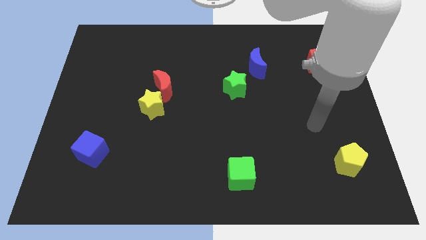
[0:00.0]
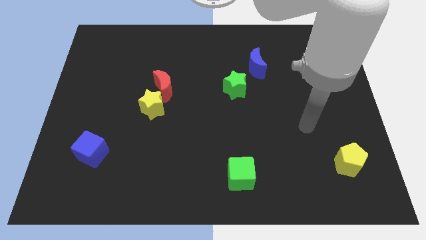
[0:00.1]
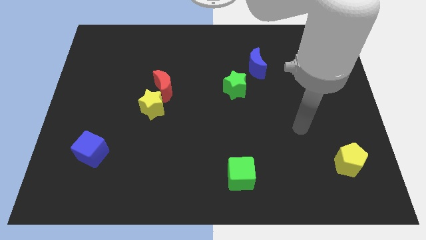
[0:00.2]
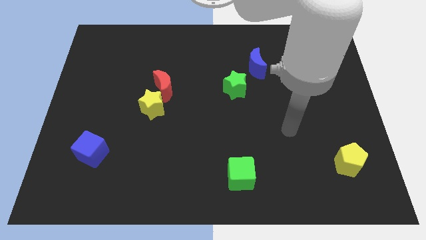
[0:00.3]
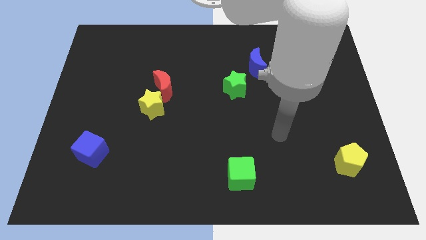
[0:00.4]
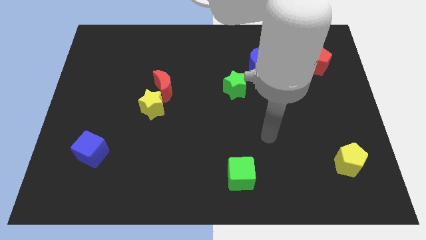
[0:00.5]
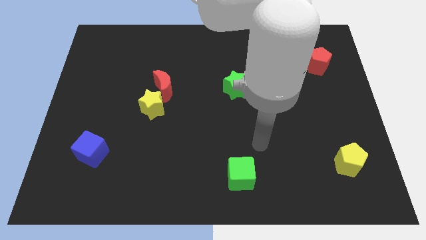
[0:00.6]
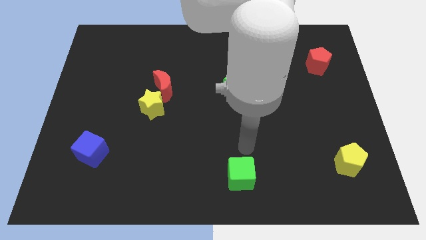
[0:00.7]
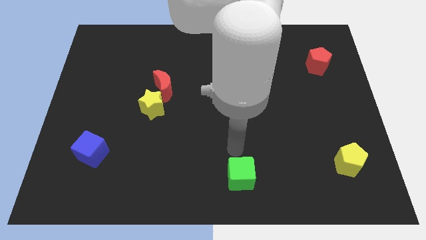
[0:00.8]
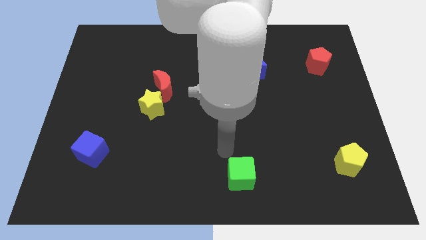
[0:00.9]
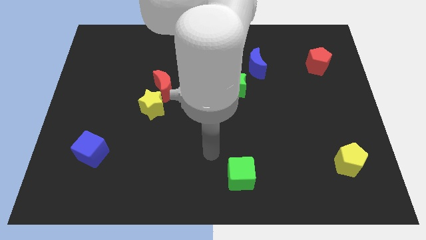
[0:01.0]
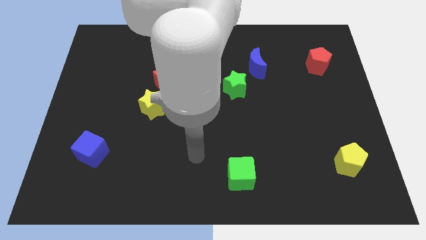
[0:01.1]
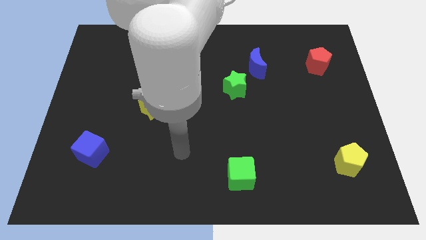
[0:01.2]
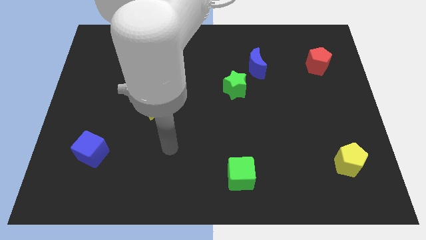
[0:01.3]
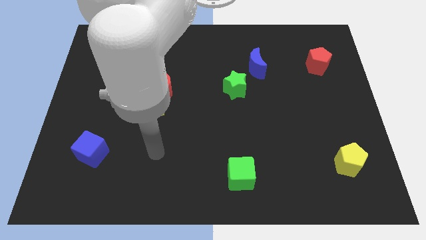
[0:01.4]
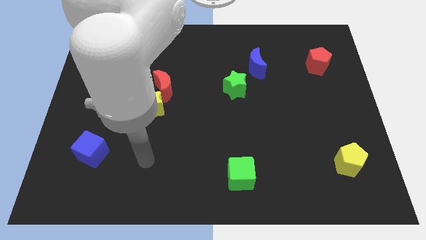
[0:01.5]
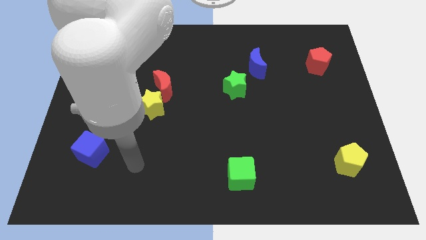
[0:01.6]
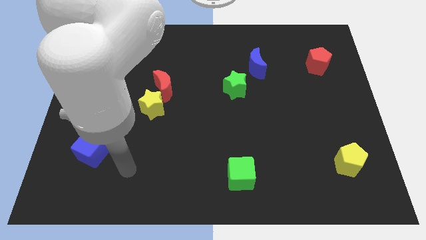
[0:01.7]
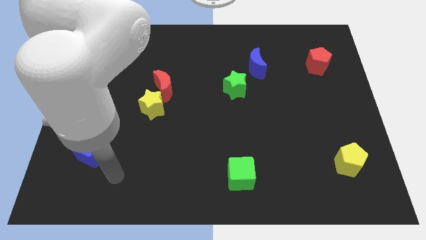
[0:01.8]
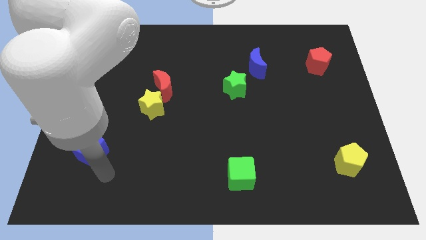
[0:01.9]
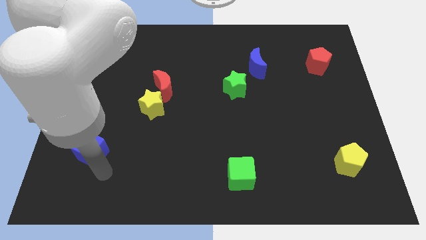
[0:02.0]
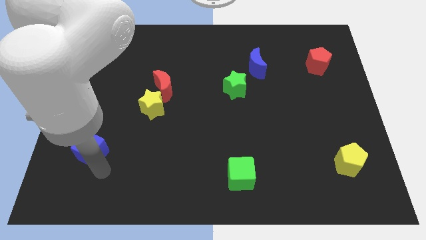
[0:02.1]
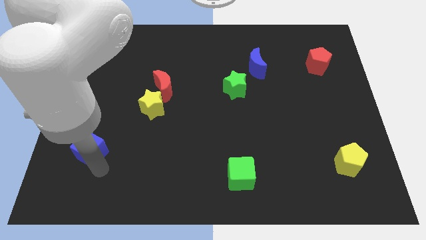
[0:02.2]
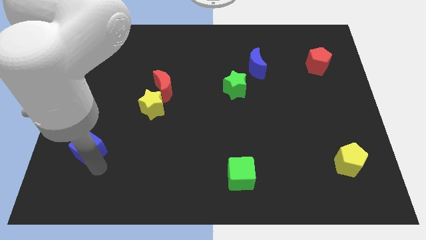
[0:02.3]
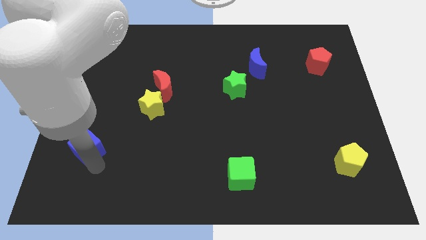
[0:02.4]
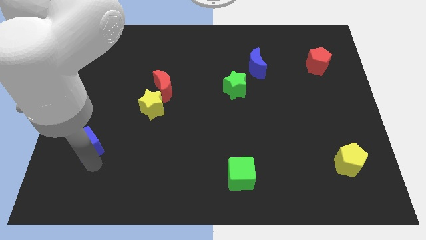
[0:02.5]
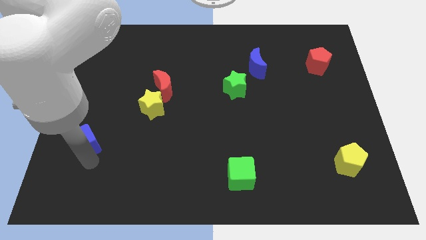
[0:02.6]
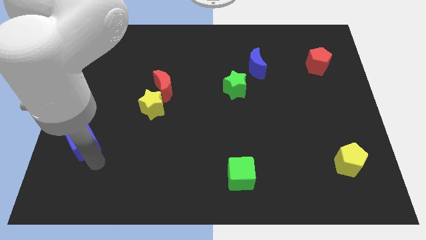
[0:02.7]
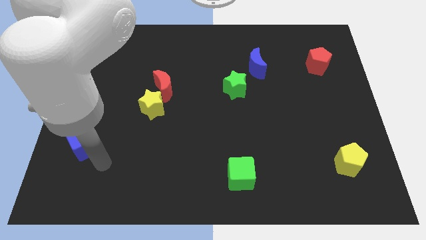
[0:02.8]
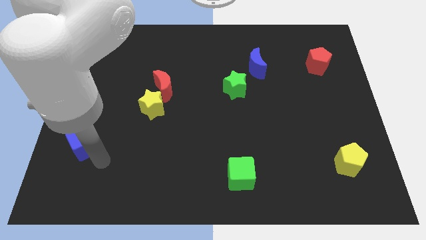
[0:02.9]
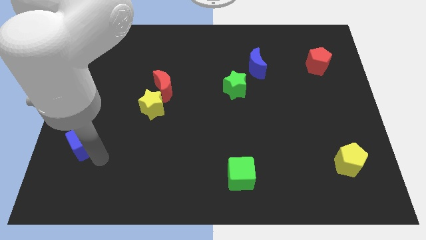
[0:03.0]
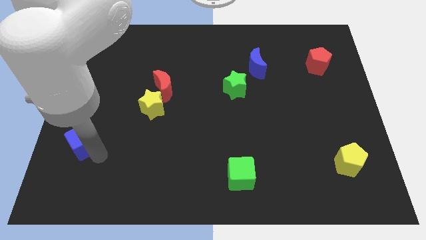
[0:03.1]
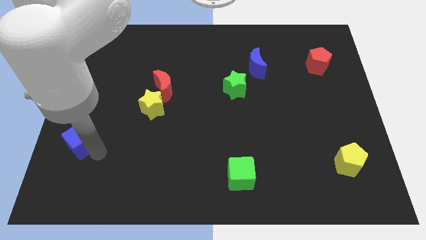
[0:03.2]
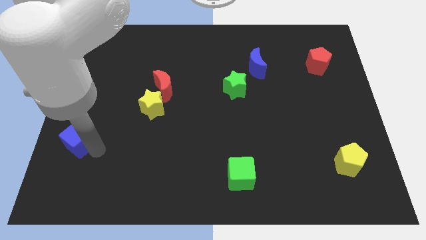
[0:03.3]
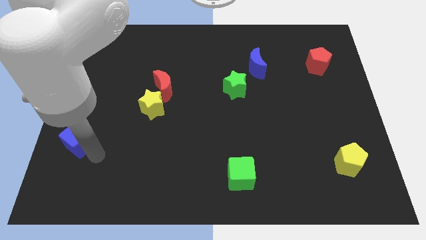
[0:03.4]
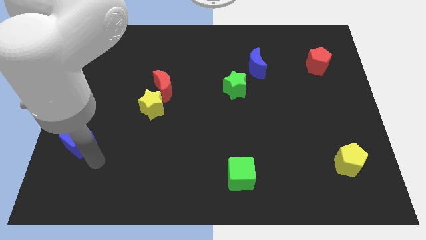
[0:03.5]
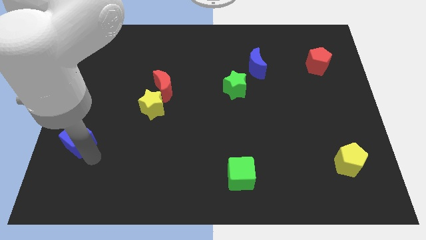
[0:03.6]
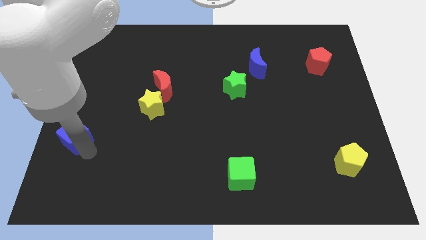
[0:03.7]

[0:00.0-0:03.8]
slide the blue cube to the left side

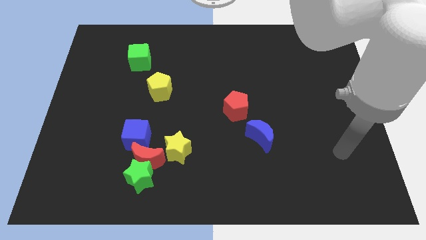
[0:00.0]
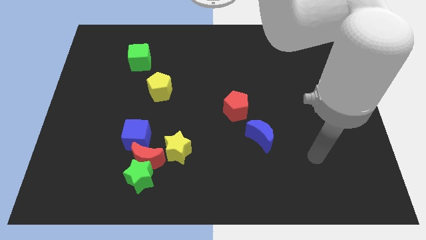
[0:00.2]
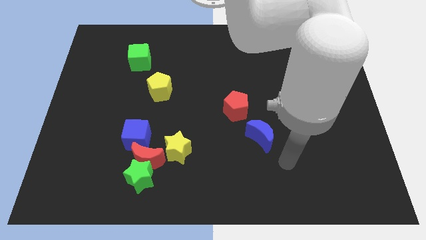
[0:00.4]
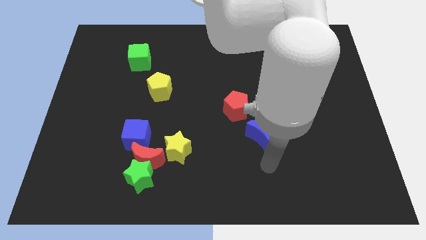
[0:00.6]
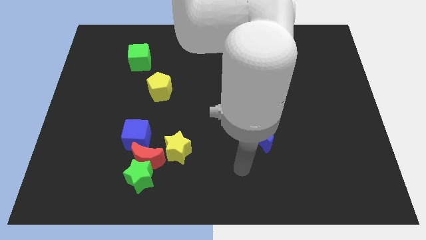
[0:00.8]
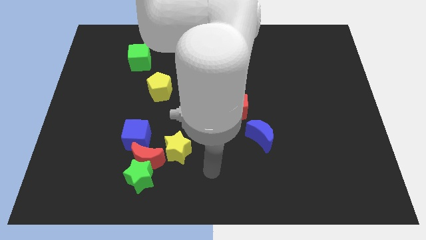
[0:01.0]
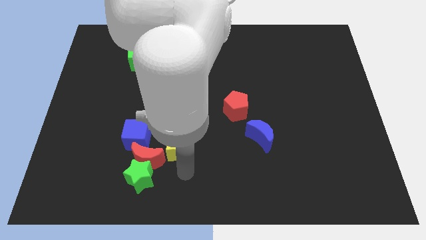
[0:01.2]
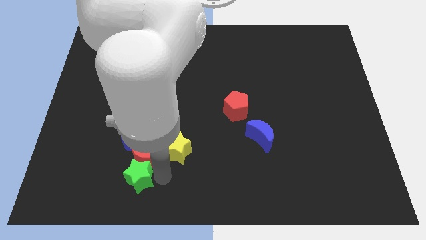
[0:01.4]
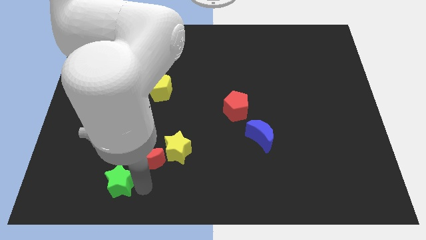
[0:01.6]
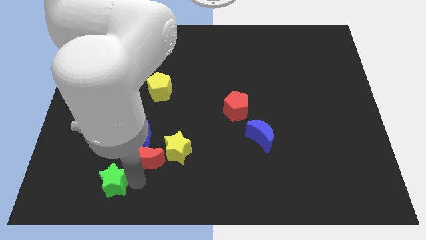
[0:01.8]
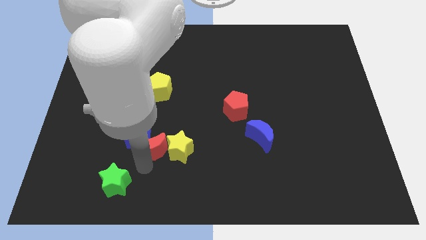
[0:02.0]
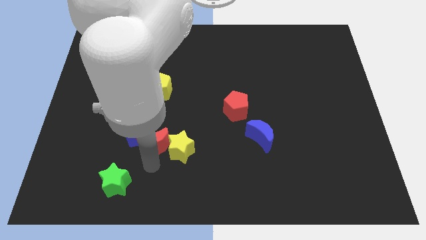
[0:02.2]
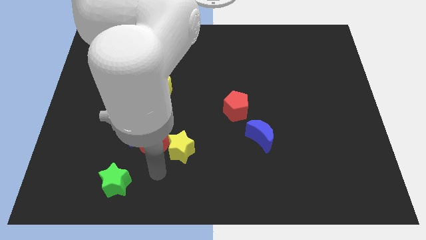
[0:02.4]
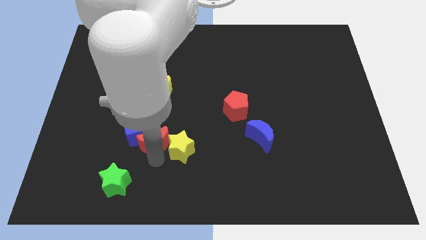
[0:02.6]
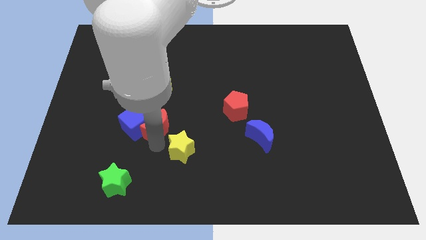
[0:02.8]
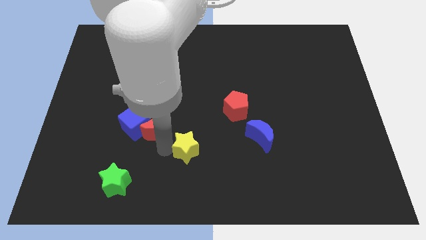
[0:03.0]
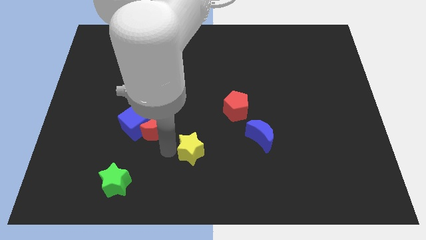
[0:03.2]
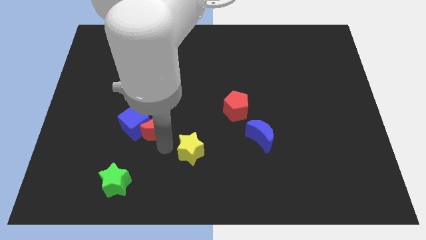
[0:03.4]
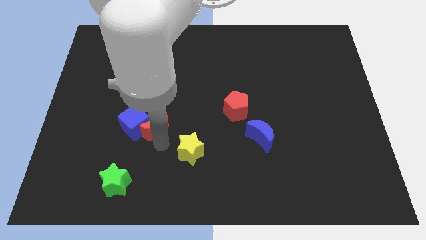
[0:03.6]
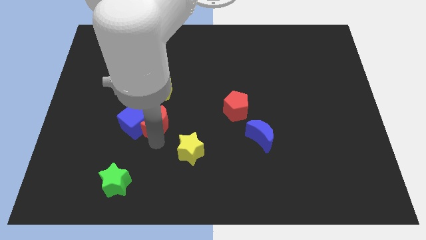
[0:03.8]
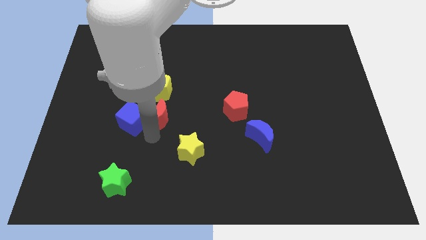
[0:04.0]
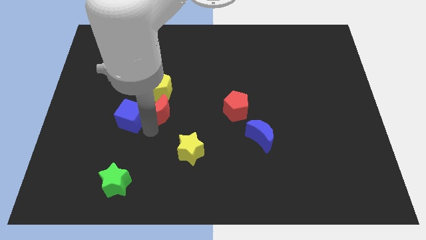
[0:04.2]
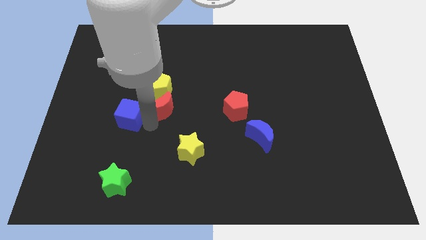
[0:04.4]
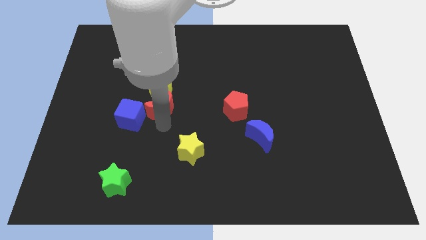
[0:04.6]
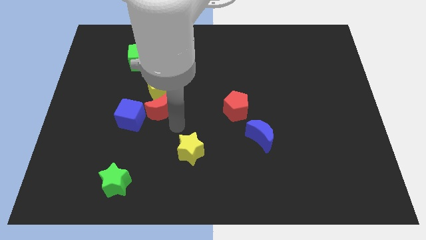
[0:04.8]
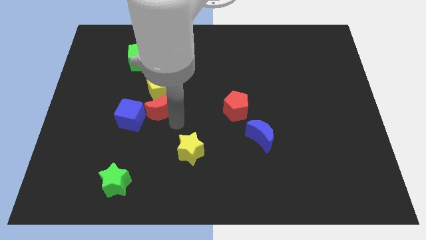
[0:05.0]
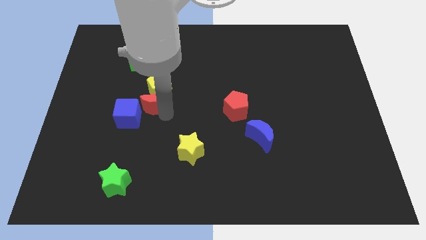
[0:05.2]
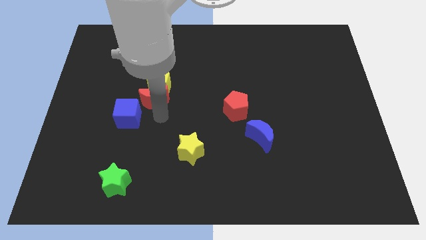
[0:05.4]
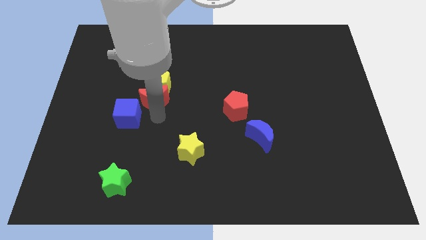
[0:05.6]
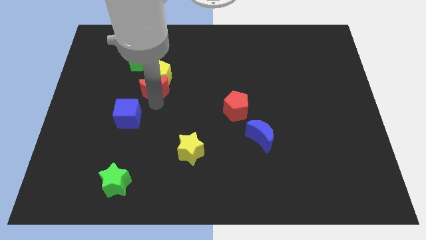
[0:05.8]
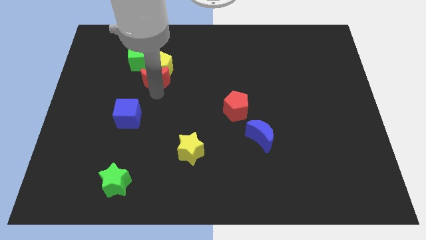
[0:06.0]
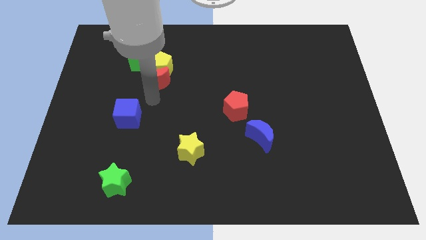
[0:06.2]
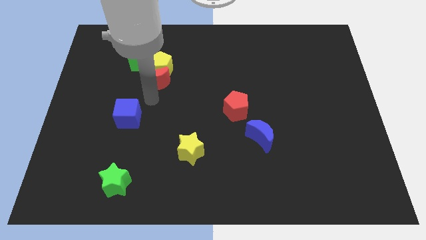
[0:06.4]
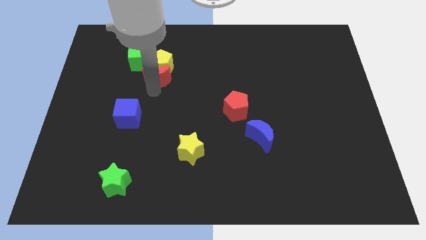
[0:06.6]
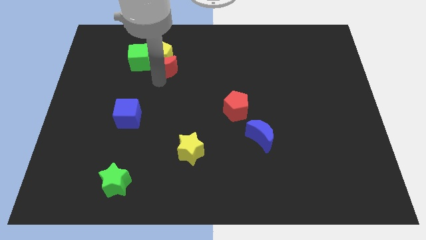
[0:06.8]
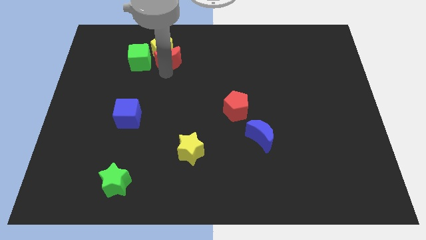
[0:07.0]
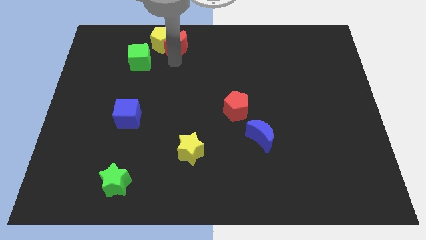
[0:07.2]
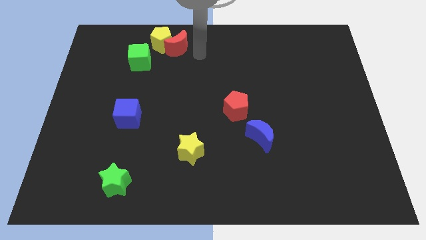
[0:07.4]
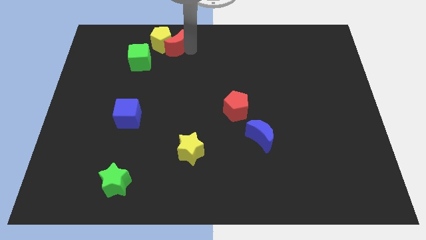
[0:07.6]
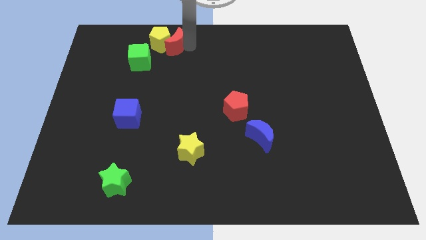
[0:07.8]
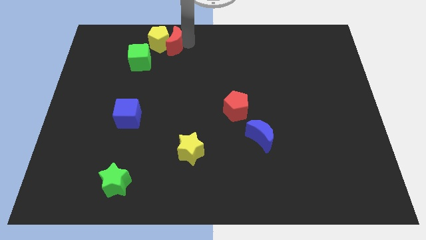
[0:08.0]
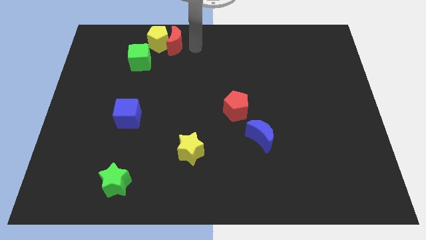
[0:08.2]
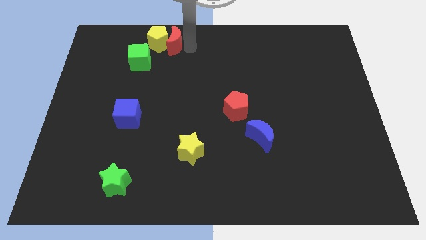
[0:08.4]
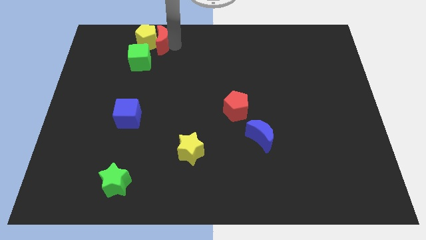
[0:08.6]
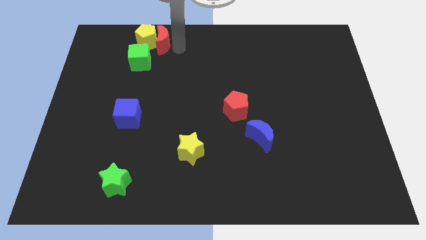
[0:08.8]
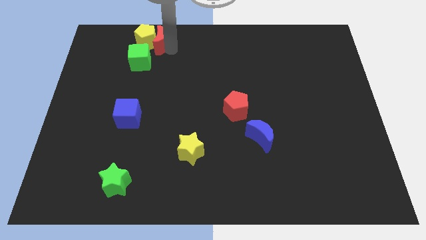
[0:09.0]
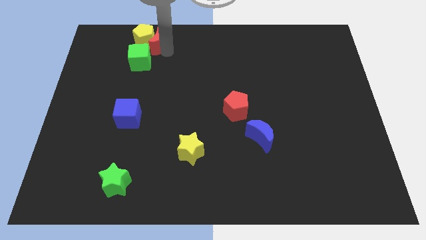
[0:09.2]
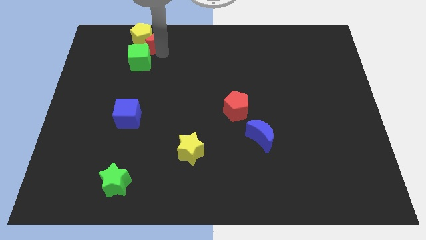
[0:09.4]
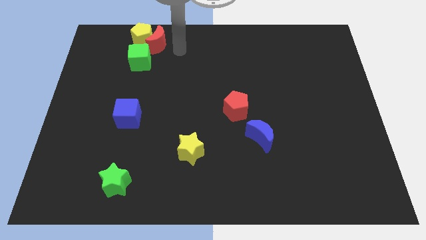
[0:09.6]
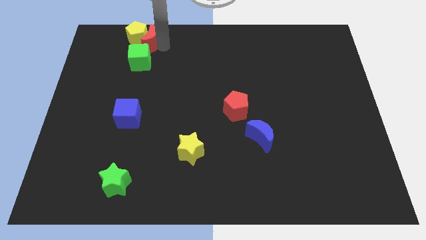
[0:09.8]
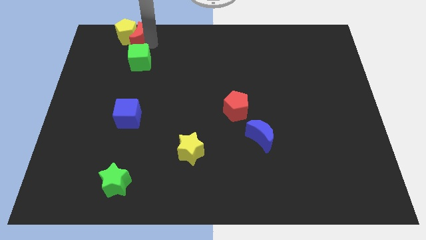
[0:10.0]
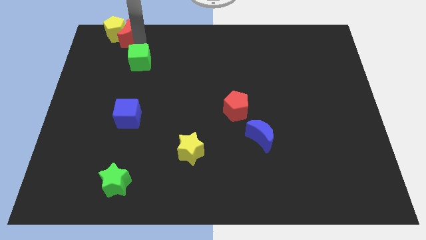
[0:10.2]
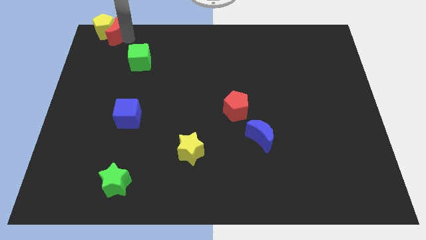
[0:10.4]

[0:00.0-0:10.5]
push the red moon to the top left corner
